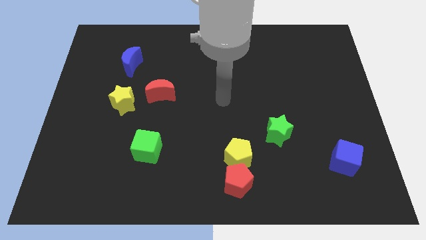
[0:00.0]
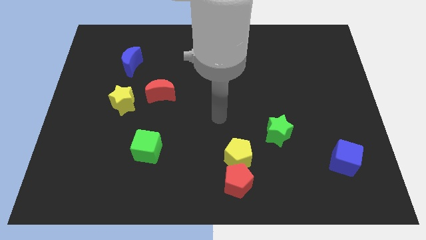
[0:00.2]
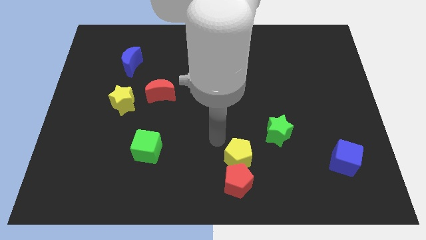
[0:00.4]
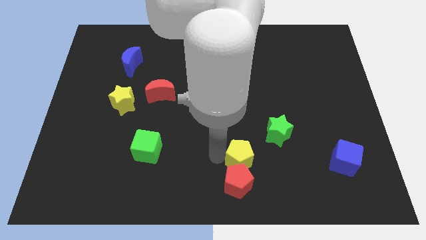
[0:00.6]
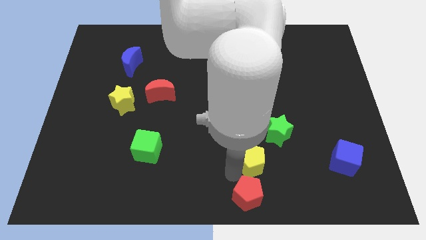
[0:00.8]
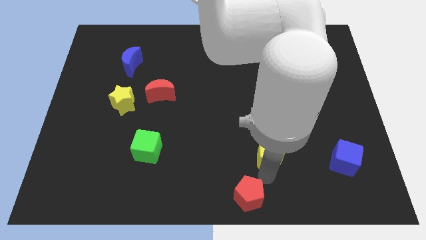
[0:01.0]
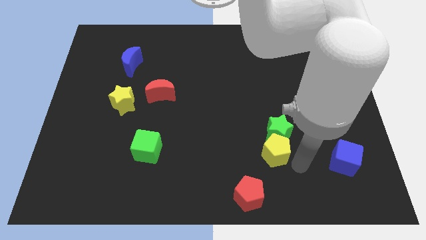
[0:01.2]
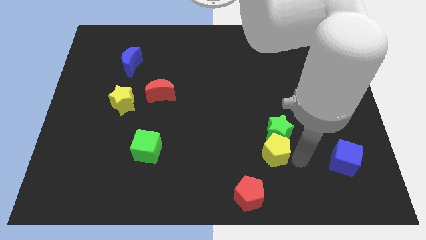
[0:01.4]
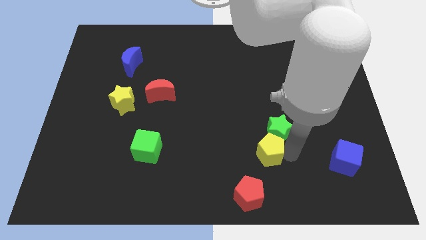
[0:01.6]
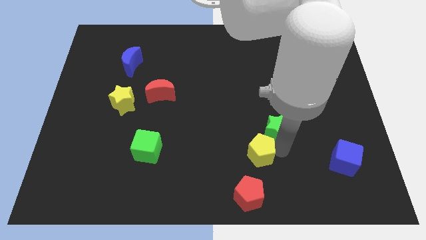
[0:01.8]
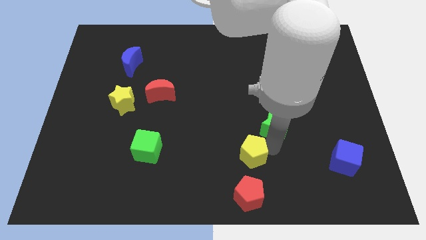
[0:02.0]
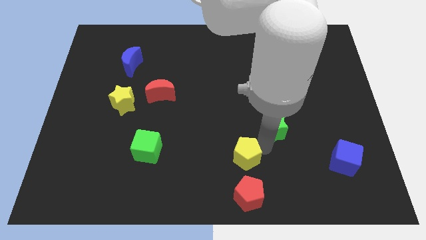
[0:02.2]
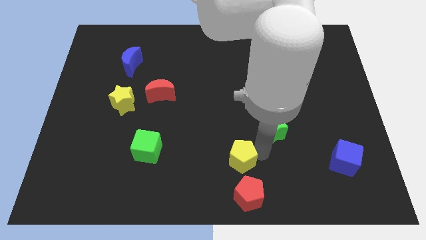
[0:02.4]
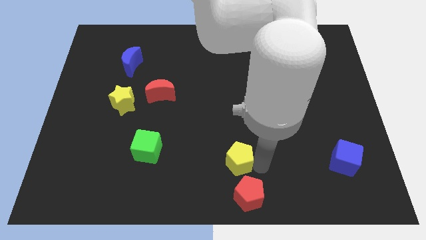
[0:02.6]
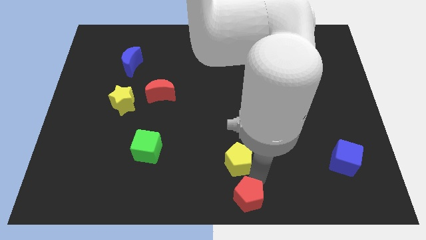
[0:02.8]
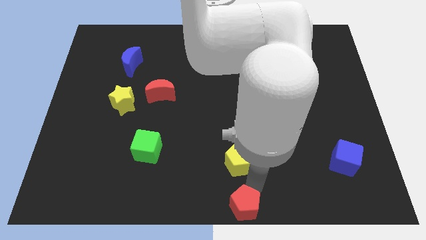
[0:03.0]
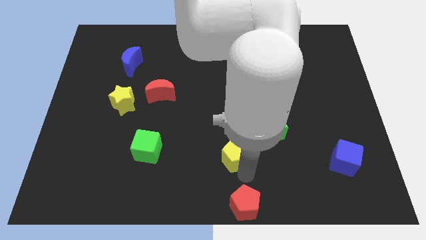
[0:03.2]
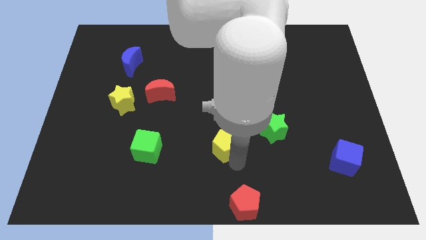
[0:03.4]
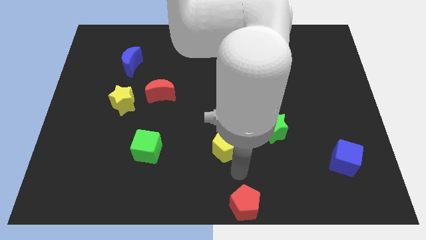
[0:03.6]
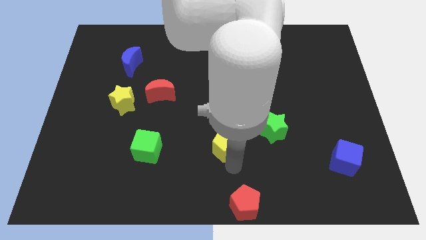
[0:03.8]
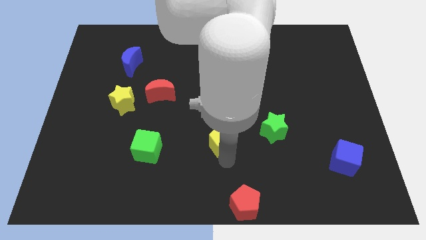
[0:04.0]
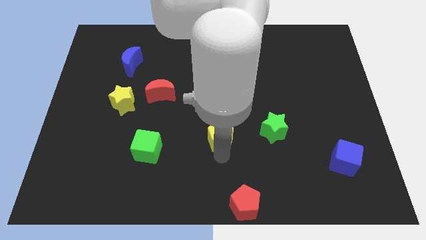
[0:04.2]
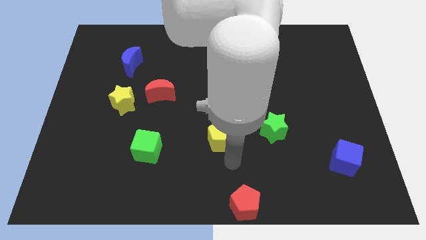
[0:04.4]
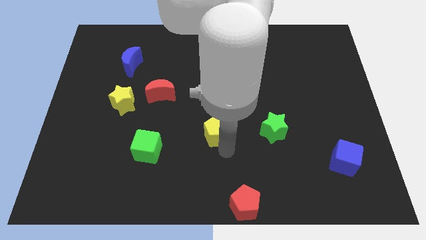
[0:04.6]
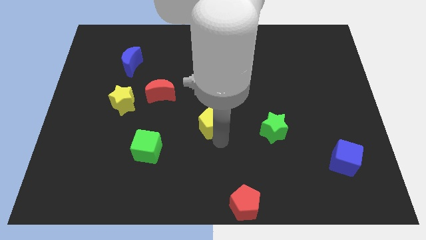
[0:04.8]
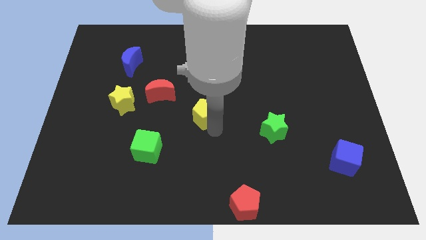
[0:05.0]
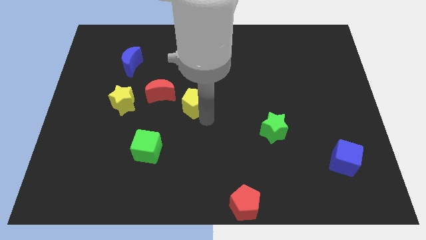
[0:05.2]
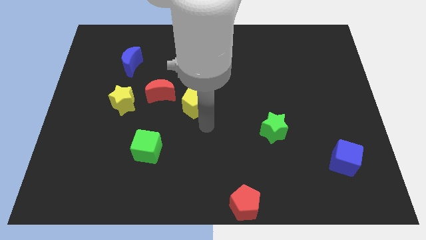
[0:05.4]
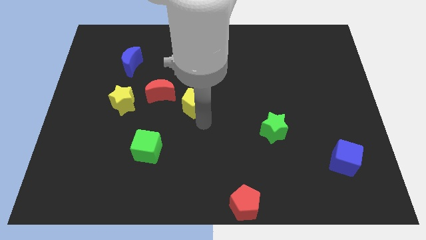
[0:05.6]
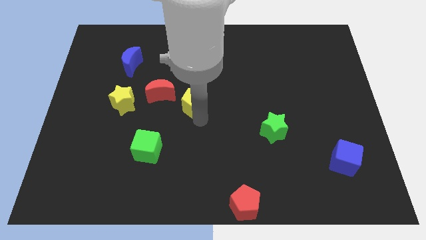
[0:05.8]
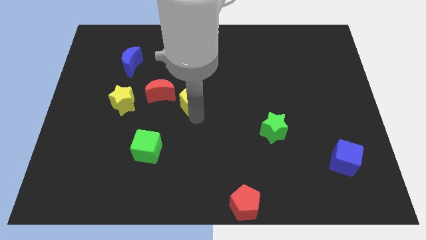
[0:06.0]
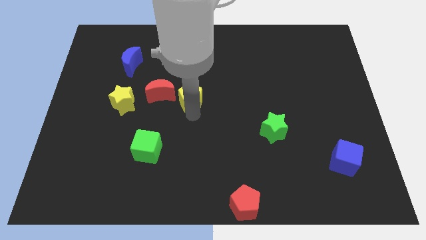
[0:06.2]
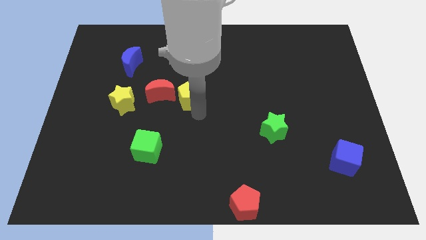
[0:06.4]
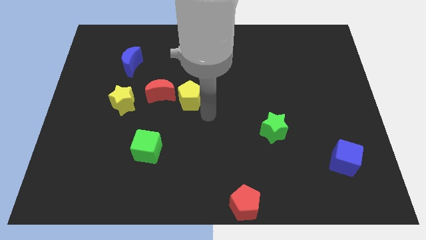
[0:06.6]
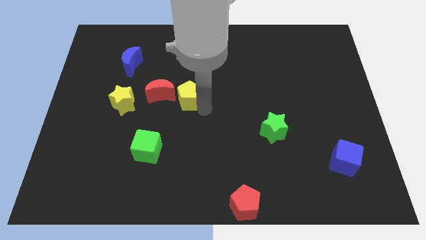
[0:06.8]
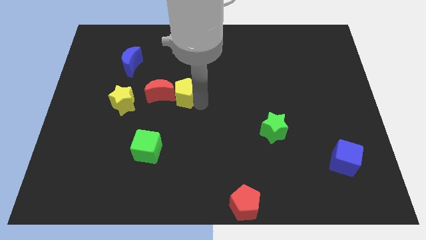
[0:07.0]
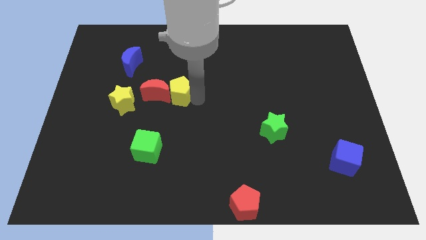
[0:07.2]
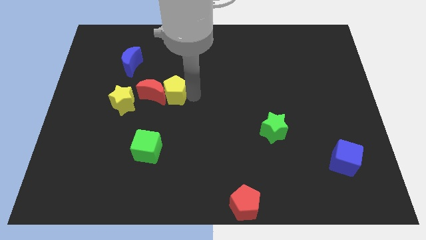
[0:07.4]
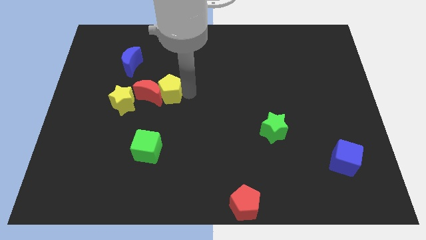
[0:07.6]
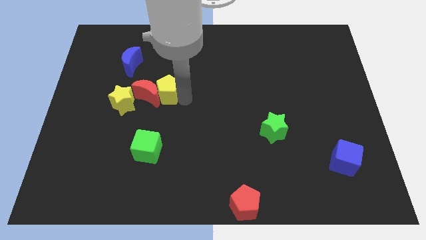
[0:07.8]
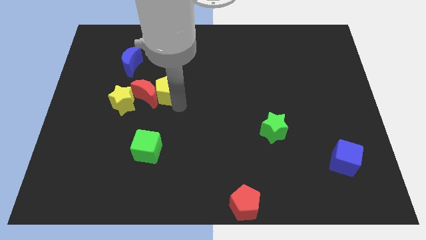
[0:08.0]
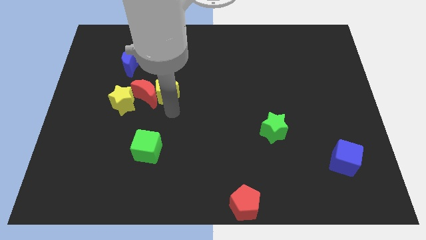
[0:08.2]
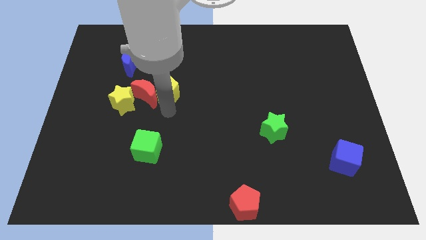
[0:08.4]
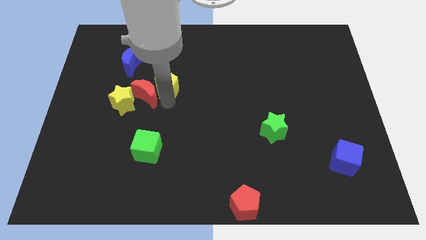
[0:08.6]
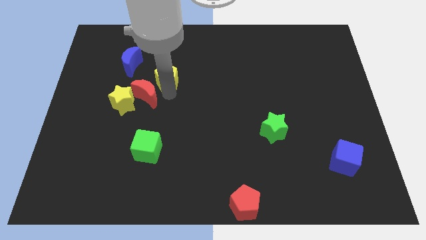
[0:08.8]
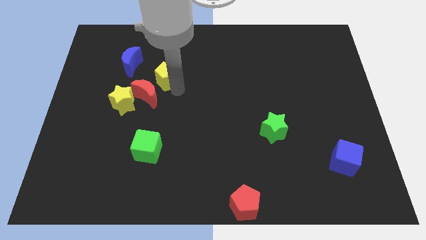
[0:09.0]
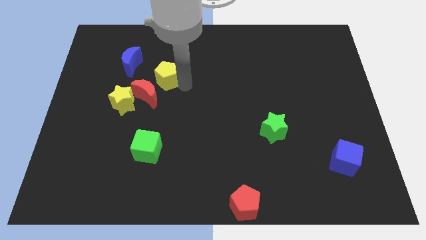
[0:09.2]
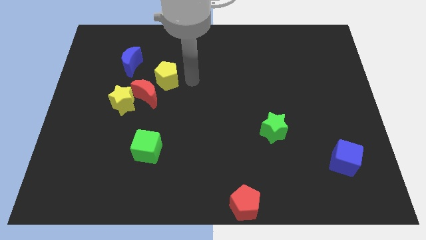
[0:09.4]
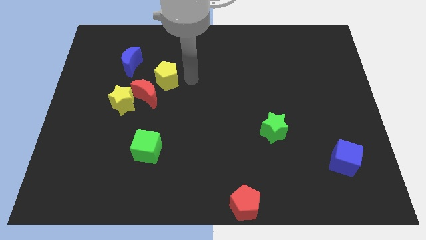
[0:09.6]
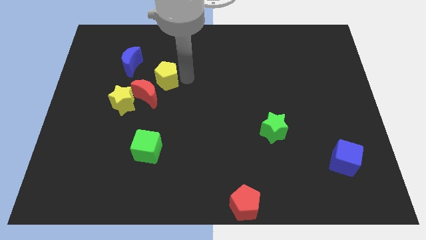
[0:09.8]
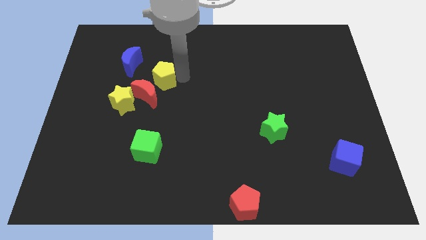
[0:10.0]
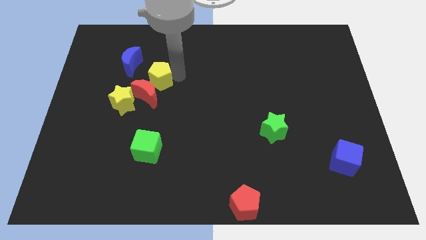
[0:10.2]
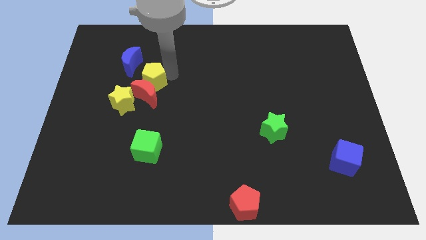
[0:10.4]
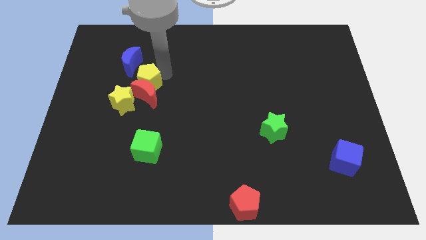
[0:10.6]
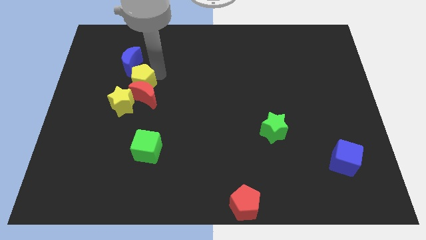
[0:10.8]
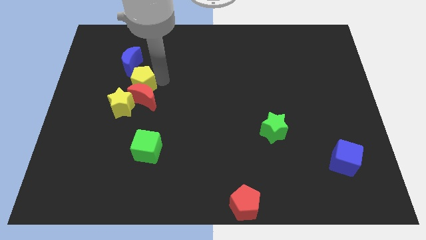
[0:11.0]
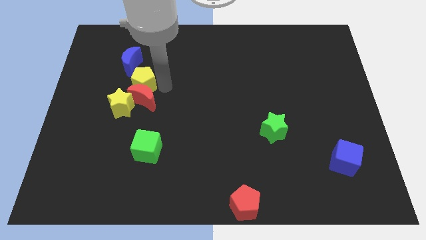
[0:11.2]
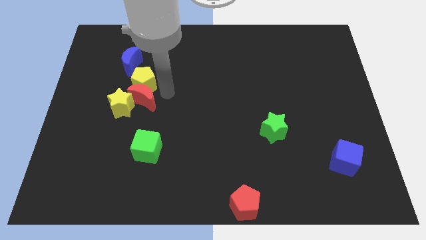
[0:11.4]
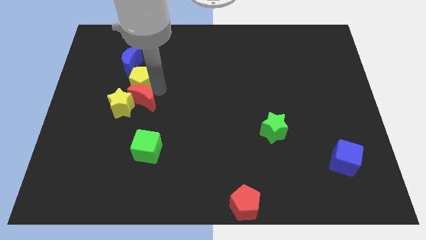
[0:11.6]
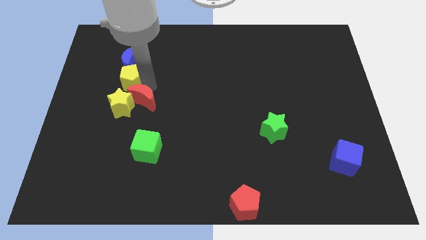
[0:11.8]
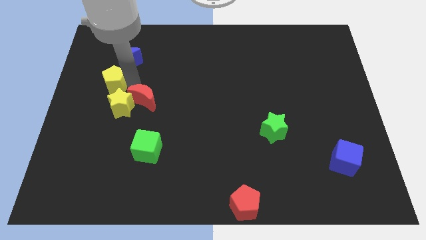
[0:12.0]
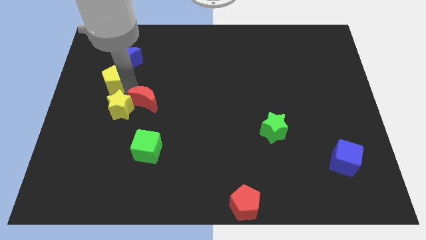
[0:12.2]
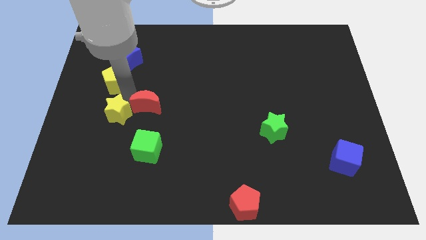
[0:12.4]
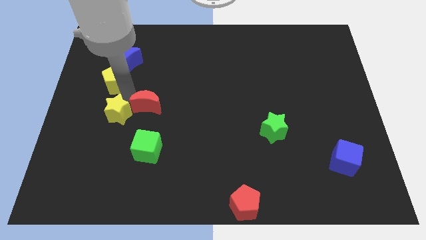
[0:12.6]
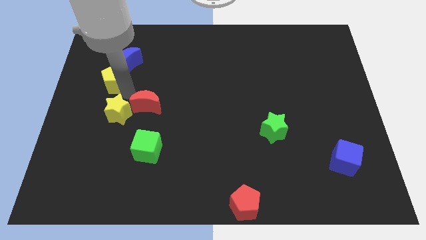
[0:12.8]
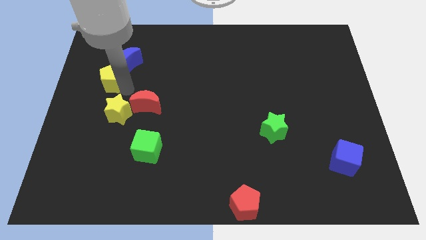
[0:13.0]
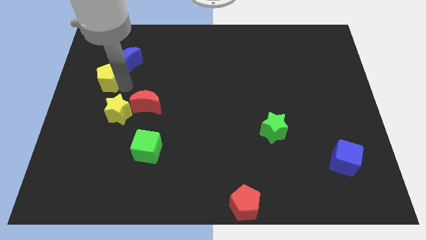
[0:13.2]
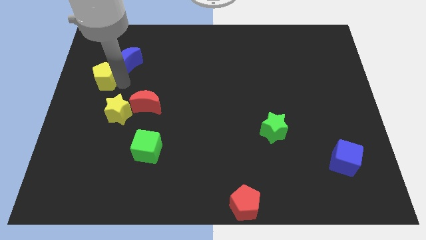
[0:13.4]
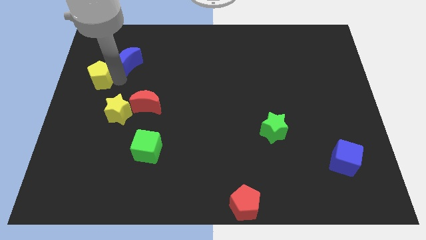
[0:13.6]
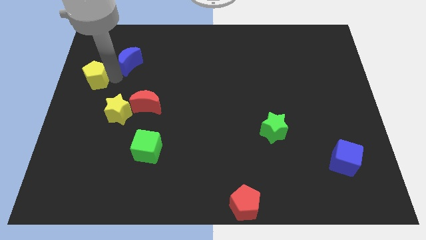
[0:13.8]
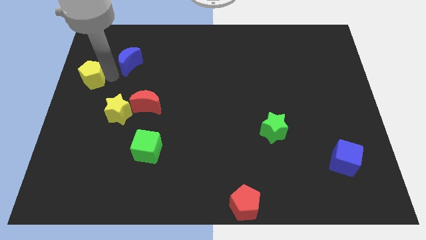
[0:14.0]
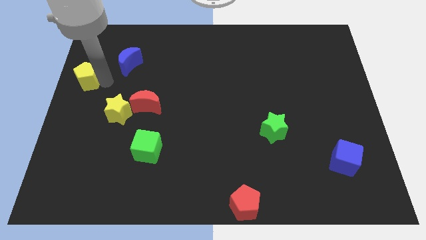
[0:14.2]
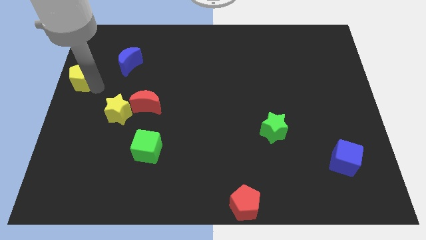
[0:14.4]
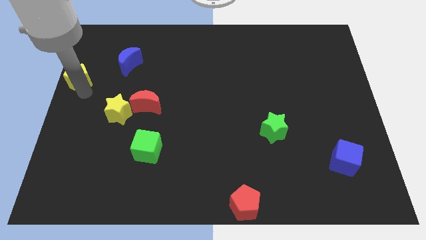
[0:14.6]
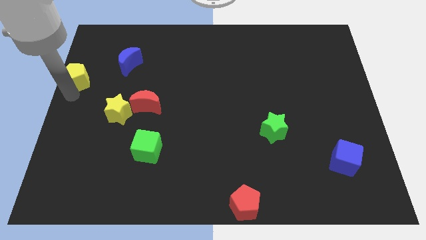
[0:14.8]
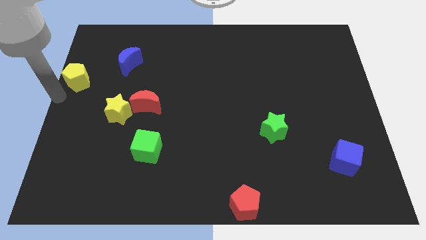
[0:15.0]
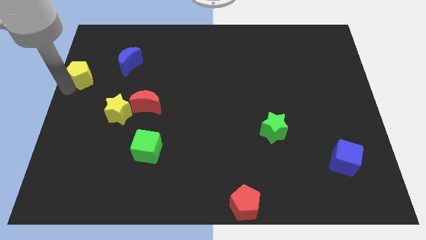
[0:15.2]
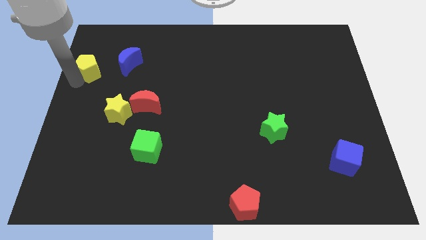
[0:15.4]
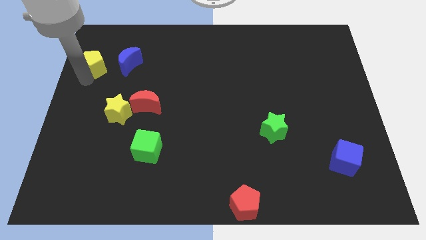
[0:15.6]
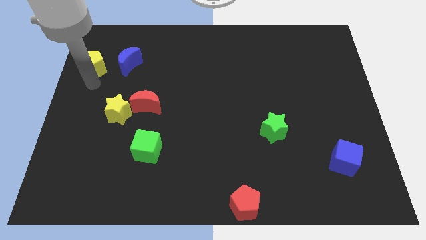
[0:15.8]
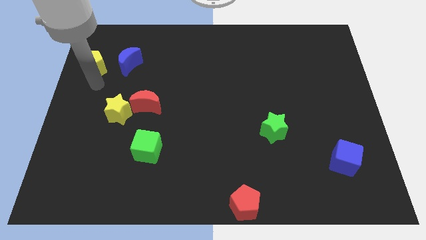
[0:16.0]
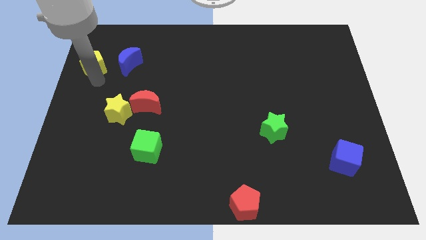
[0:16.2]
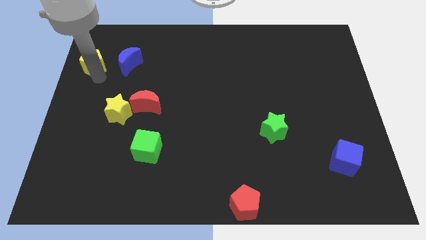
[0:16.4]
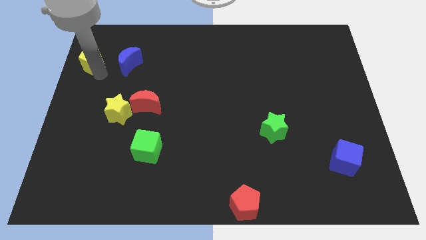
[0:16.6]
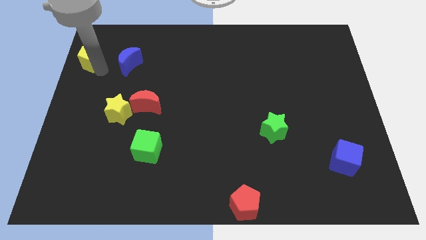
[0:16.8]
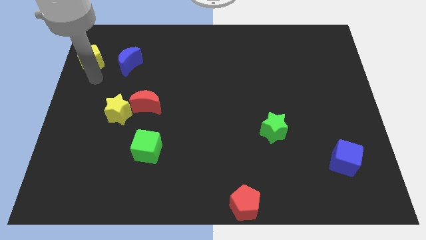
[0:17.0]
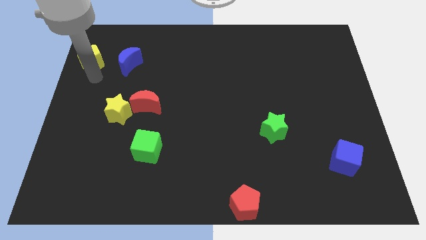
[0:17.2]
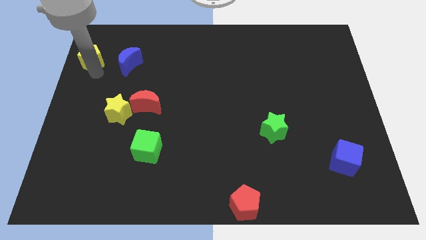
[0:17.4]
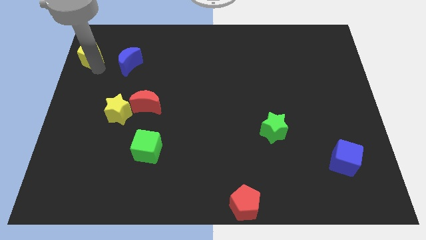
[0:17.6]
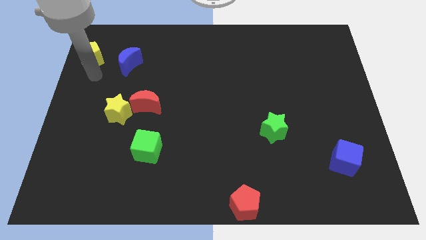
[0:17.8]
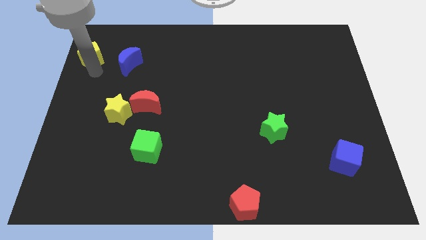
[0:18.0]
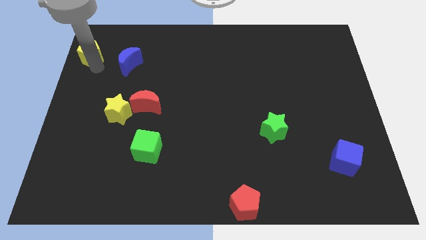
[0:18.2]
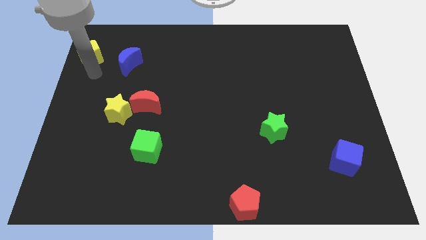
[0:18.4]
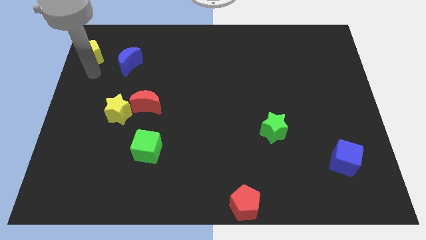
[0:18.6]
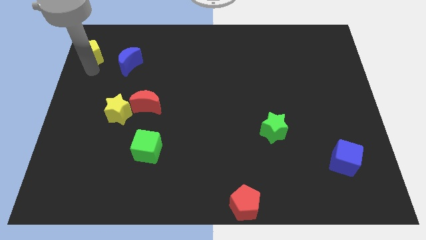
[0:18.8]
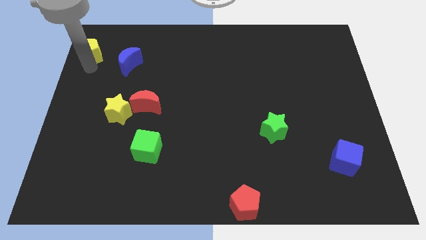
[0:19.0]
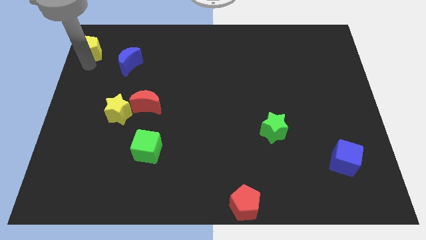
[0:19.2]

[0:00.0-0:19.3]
push the yellow pentagon to the top left corner
